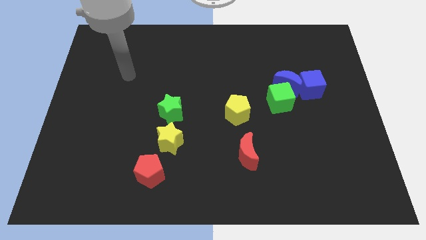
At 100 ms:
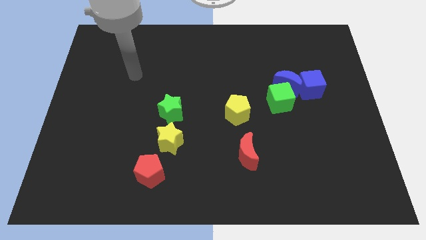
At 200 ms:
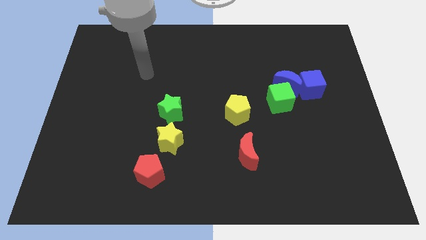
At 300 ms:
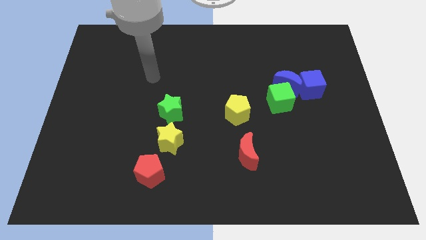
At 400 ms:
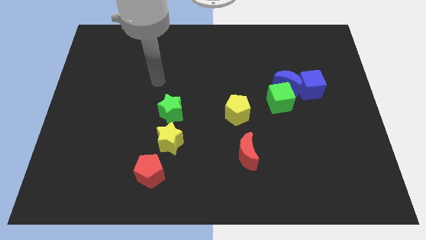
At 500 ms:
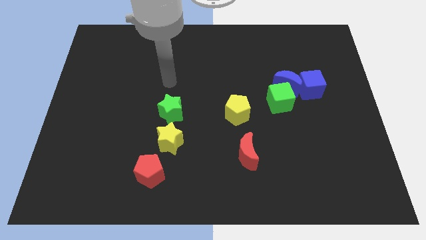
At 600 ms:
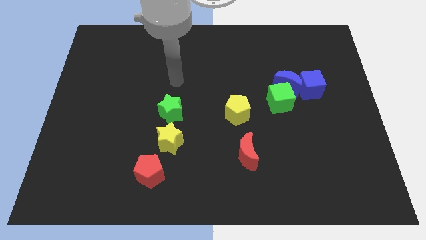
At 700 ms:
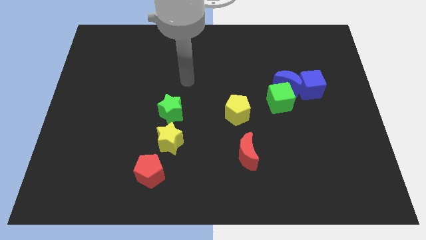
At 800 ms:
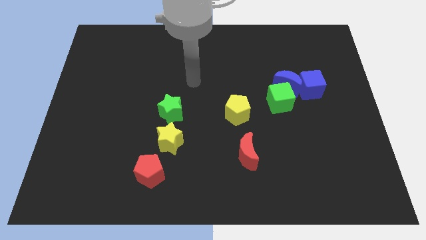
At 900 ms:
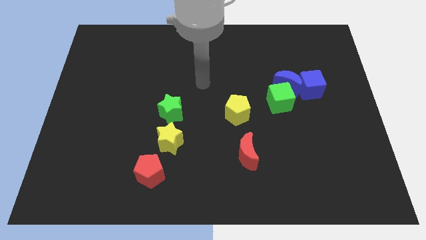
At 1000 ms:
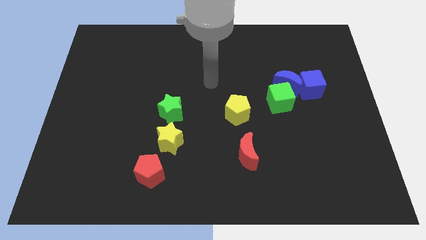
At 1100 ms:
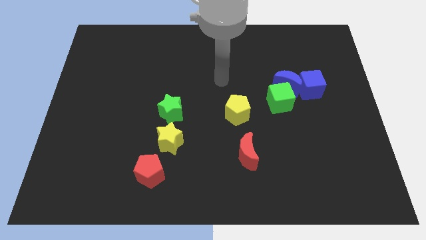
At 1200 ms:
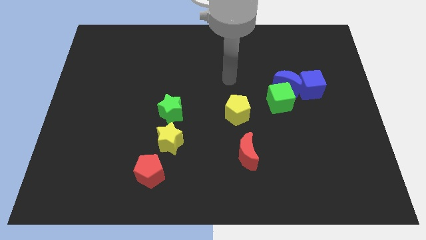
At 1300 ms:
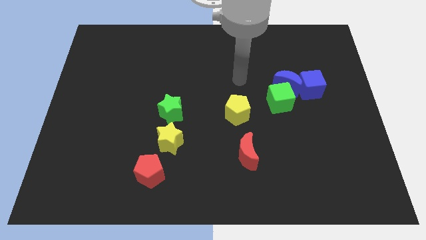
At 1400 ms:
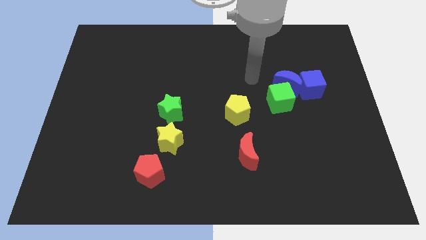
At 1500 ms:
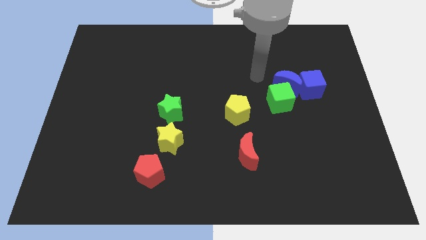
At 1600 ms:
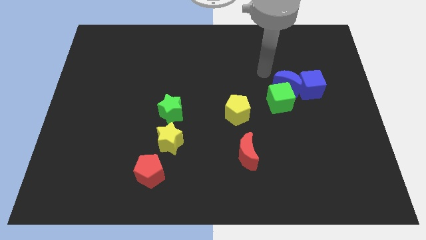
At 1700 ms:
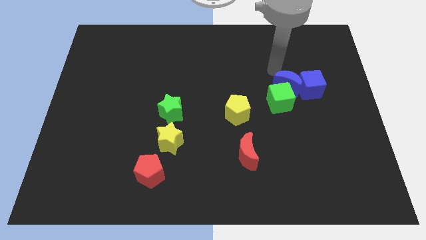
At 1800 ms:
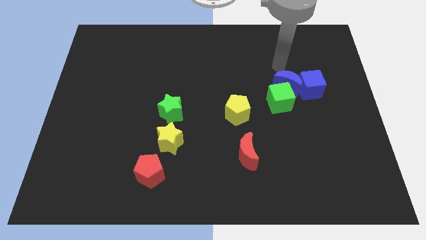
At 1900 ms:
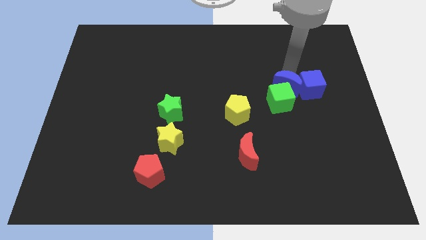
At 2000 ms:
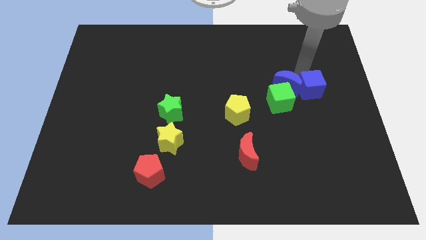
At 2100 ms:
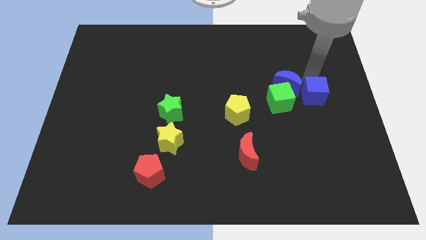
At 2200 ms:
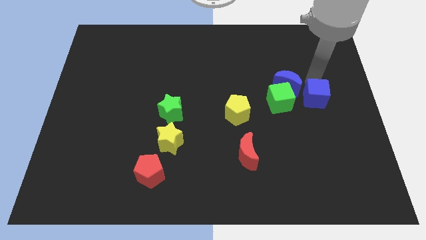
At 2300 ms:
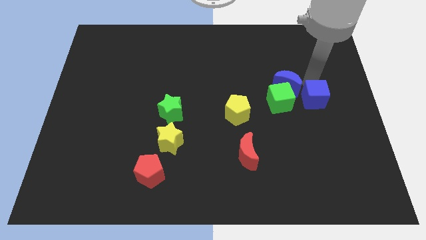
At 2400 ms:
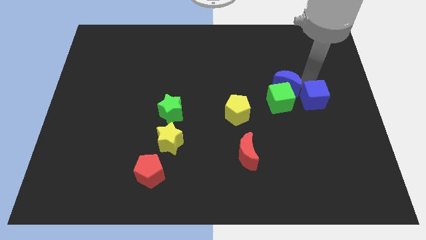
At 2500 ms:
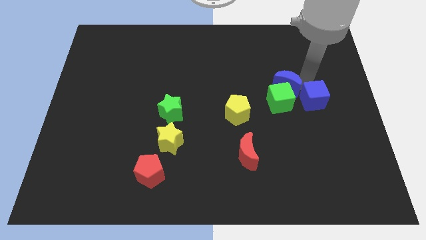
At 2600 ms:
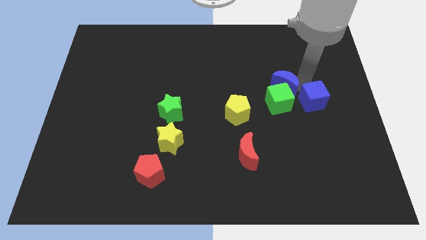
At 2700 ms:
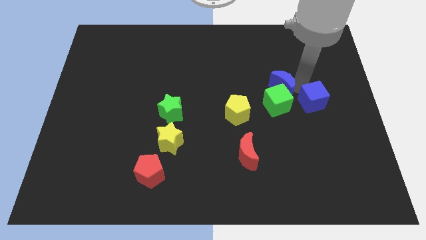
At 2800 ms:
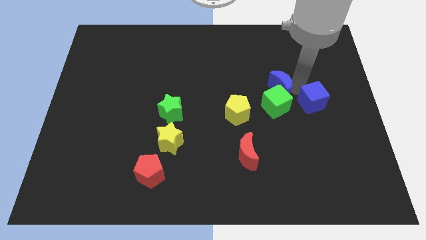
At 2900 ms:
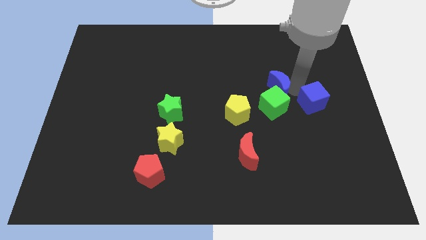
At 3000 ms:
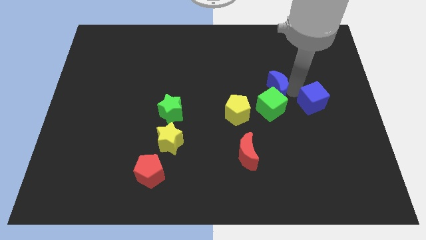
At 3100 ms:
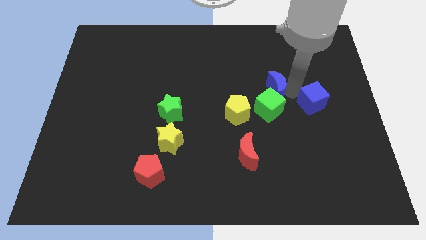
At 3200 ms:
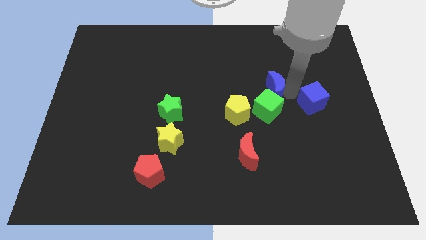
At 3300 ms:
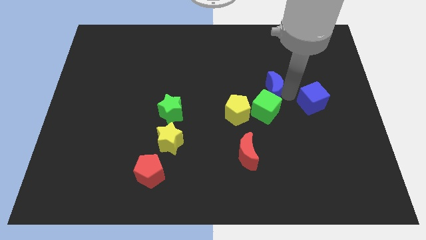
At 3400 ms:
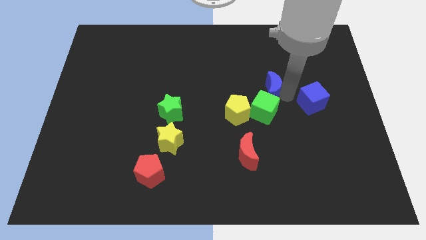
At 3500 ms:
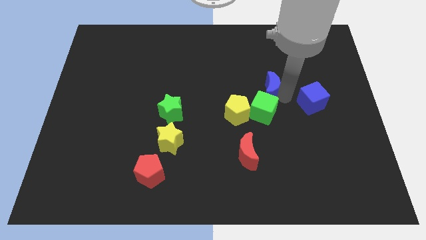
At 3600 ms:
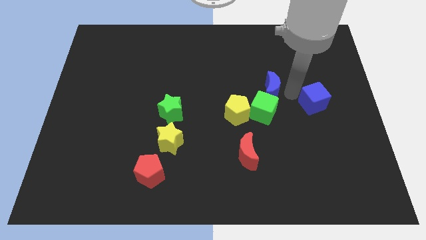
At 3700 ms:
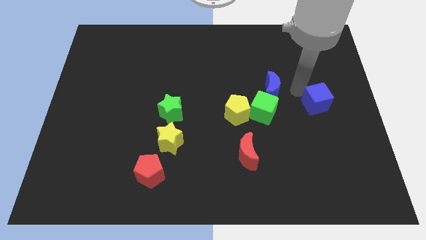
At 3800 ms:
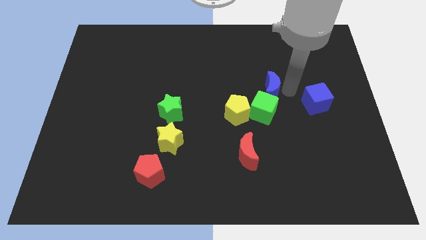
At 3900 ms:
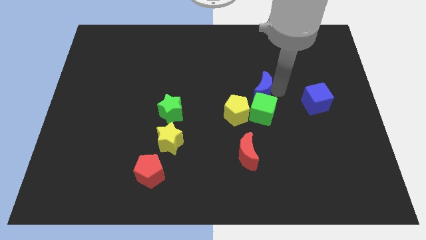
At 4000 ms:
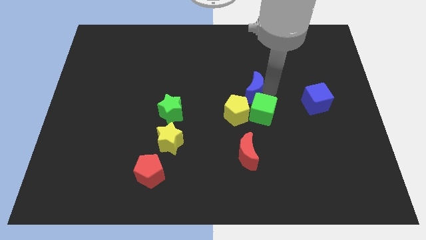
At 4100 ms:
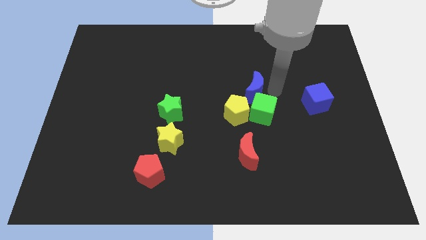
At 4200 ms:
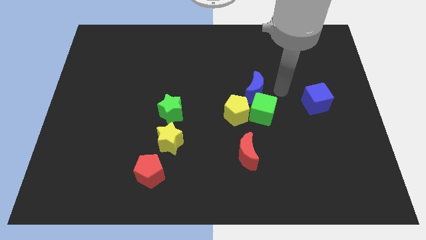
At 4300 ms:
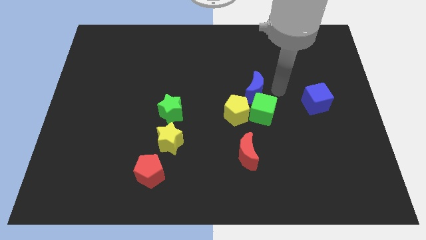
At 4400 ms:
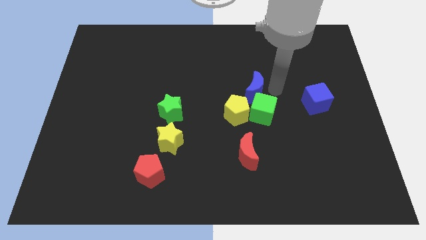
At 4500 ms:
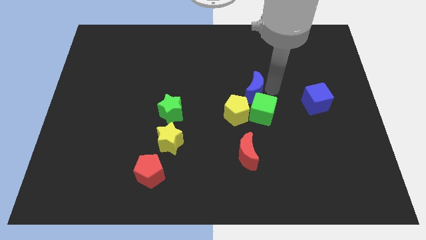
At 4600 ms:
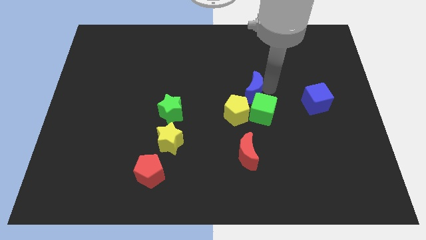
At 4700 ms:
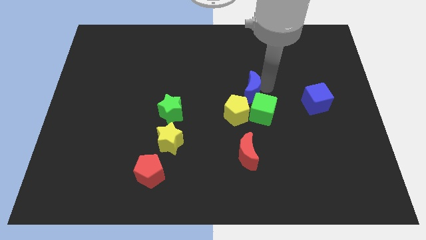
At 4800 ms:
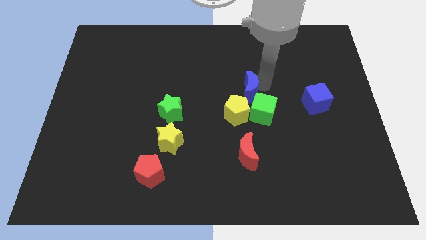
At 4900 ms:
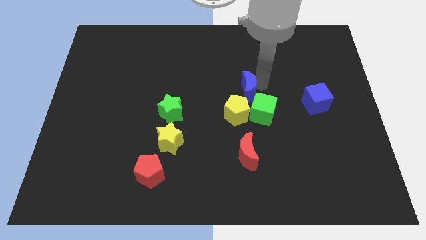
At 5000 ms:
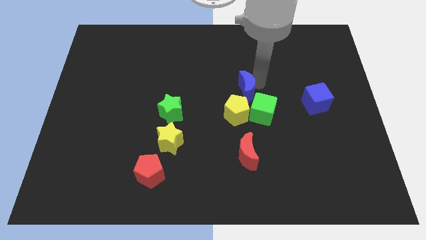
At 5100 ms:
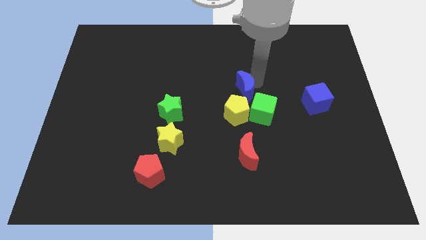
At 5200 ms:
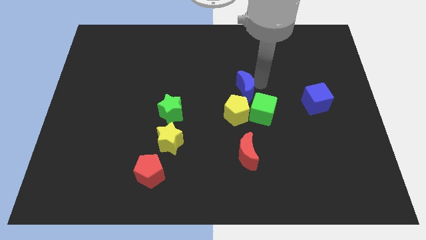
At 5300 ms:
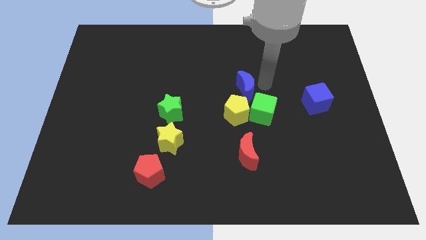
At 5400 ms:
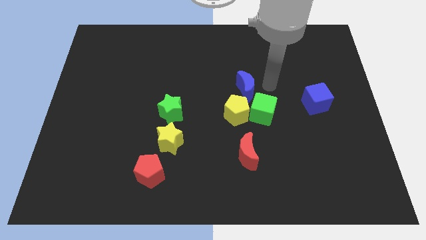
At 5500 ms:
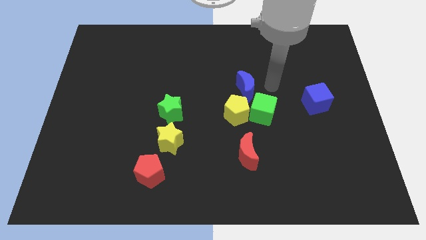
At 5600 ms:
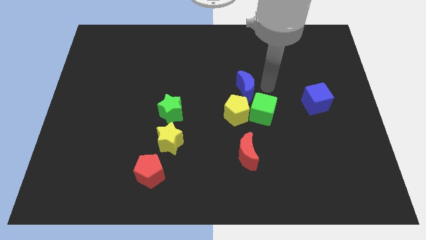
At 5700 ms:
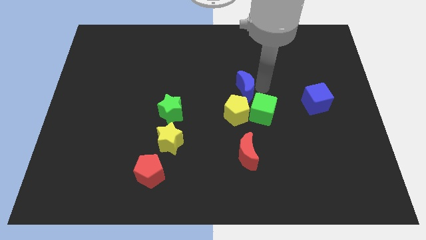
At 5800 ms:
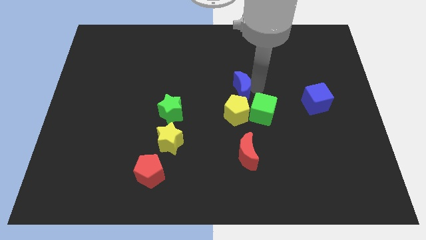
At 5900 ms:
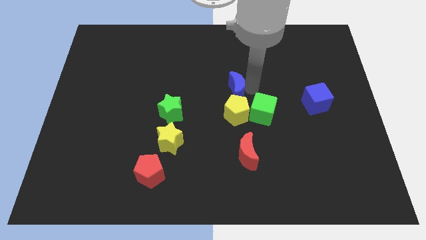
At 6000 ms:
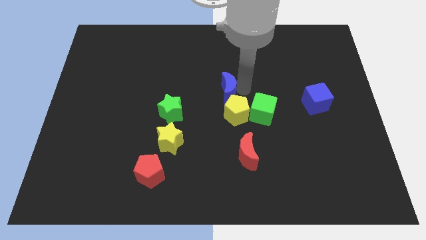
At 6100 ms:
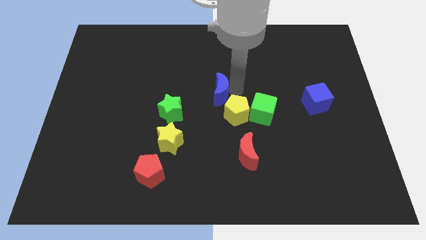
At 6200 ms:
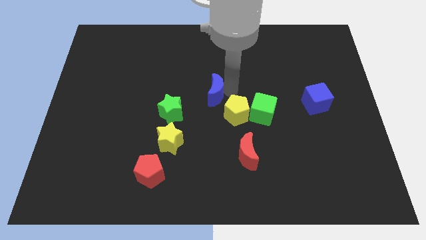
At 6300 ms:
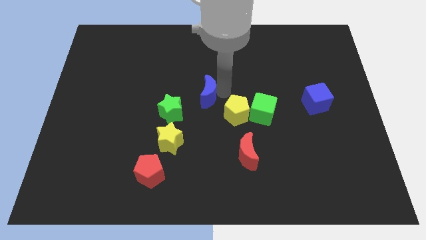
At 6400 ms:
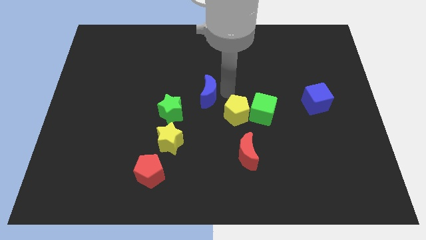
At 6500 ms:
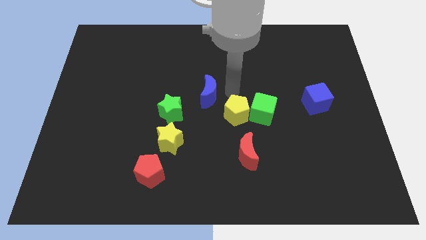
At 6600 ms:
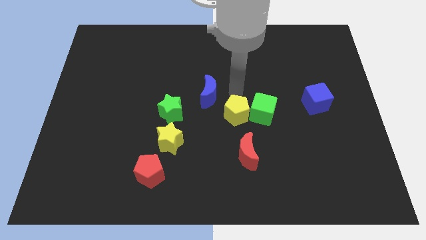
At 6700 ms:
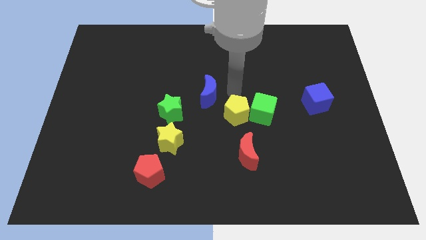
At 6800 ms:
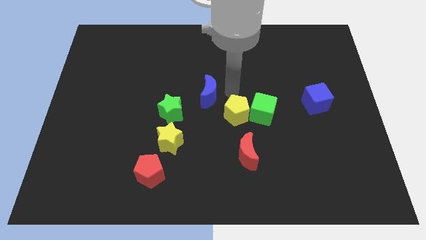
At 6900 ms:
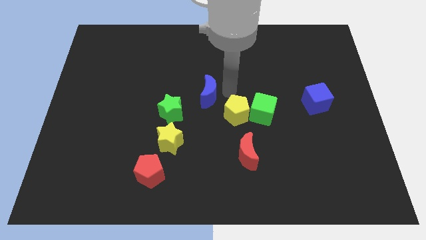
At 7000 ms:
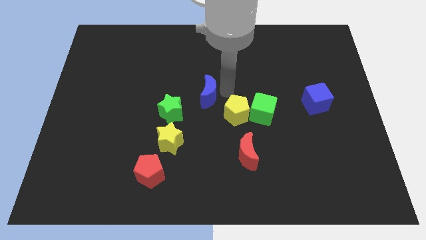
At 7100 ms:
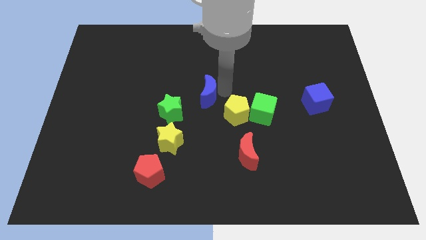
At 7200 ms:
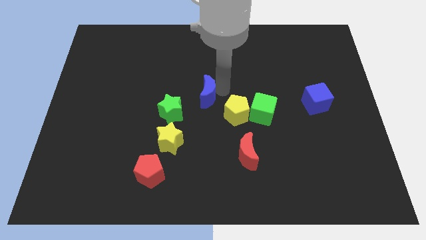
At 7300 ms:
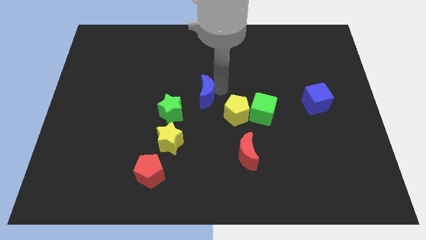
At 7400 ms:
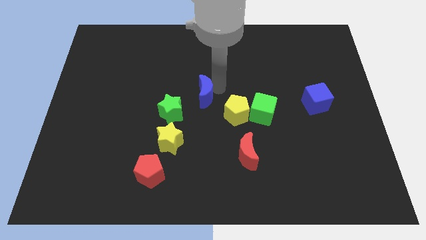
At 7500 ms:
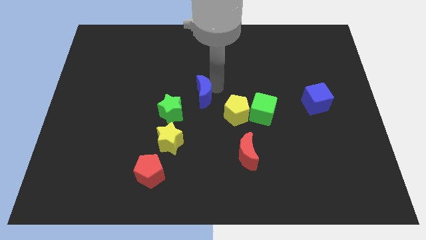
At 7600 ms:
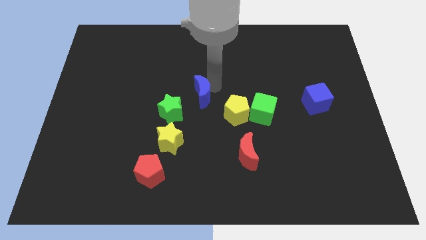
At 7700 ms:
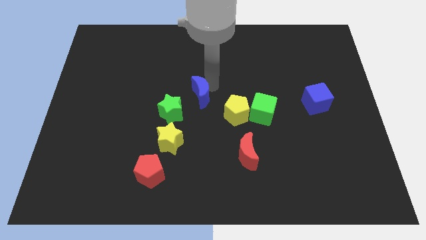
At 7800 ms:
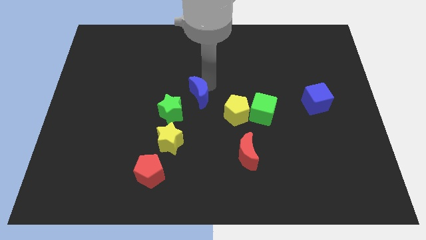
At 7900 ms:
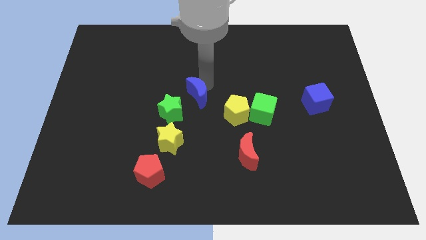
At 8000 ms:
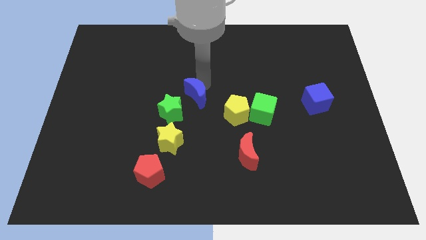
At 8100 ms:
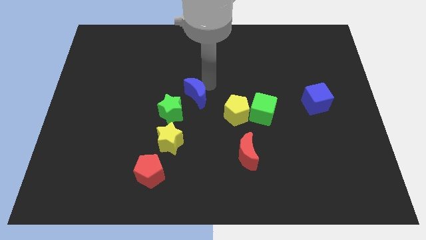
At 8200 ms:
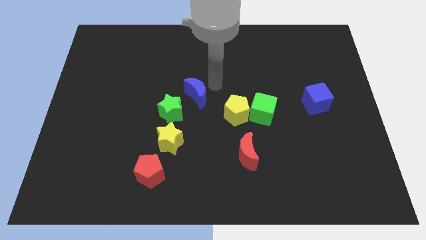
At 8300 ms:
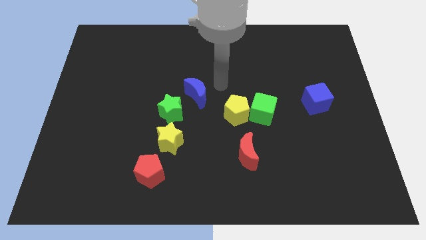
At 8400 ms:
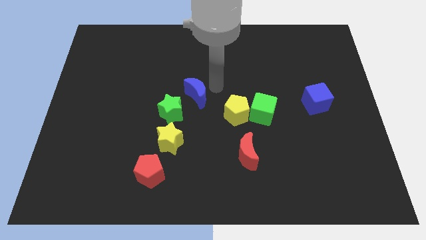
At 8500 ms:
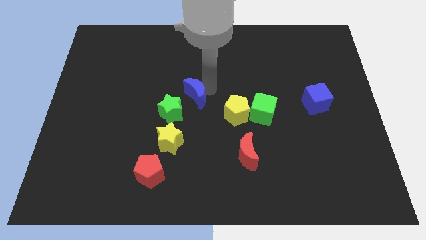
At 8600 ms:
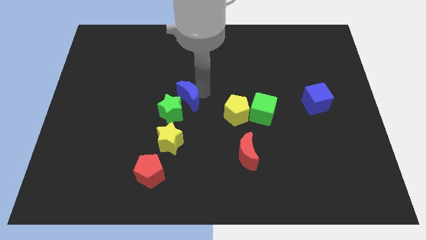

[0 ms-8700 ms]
put the blue moon to the top of the yellow star
